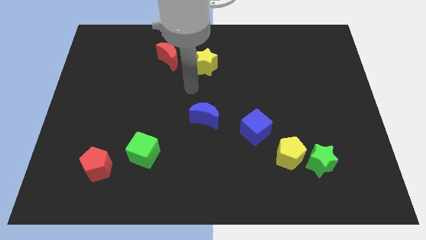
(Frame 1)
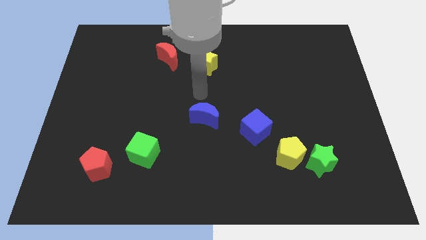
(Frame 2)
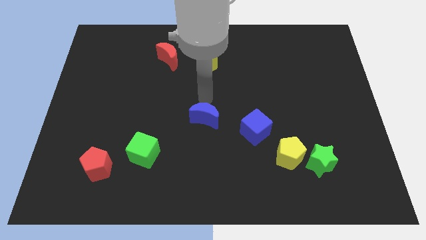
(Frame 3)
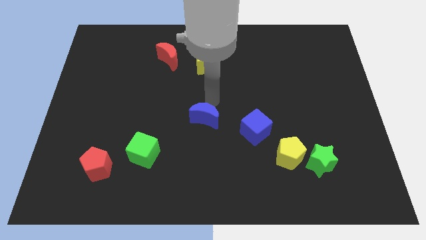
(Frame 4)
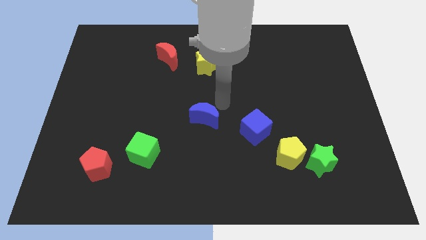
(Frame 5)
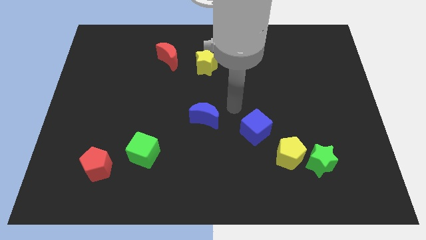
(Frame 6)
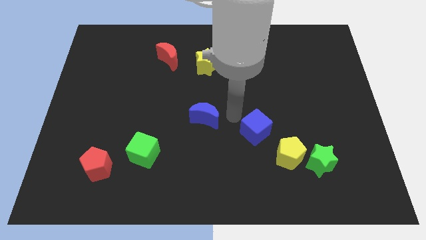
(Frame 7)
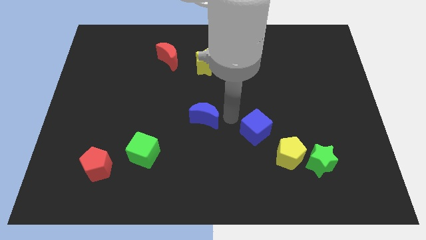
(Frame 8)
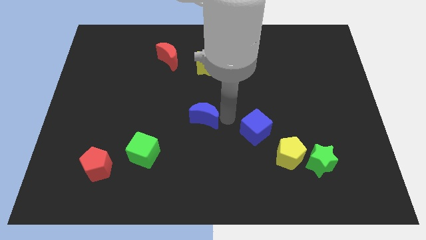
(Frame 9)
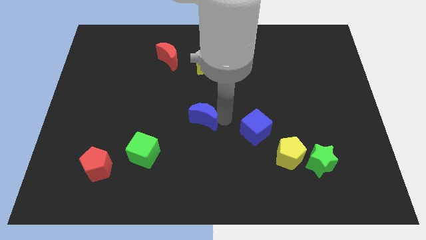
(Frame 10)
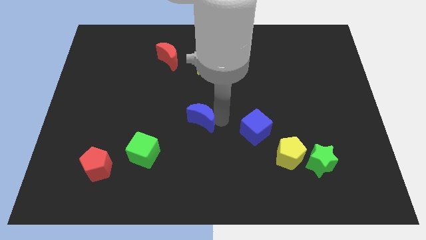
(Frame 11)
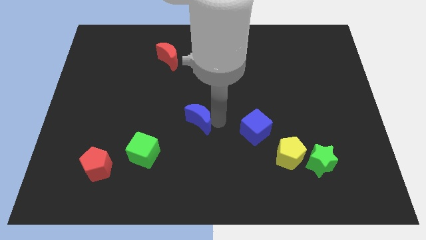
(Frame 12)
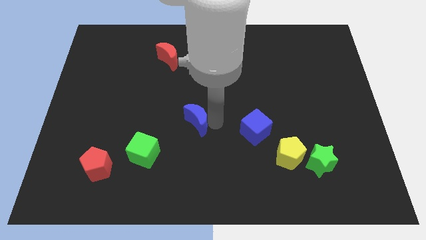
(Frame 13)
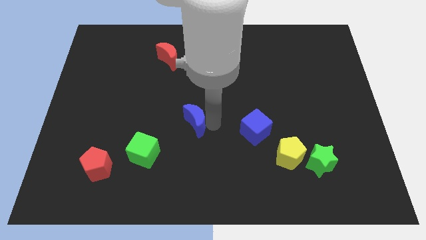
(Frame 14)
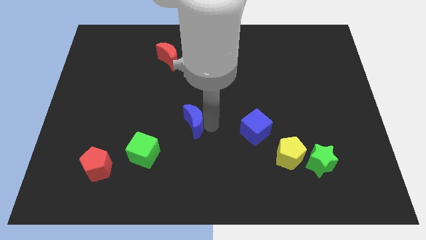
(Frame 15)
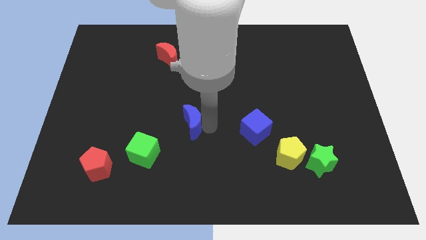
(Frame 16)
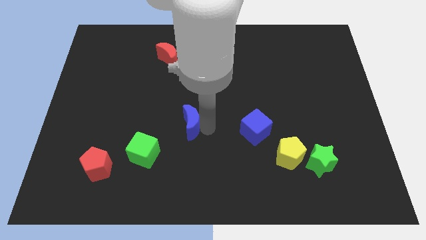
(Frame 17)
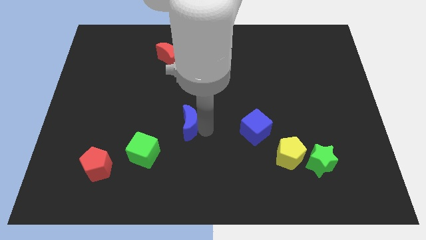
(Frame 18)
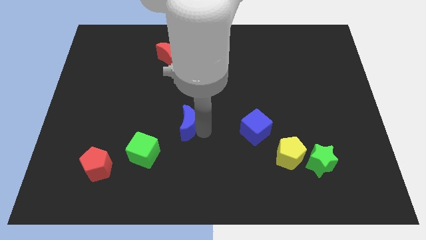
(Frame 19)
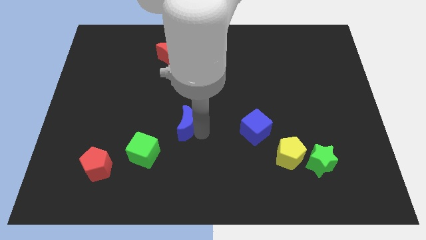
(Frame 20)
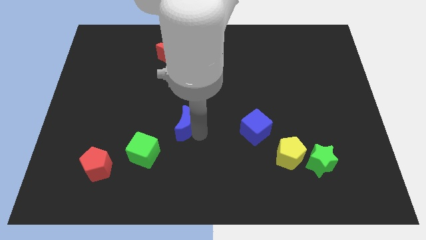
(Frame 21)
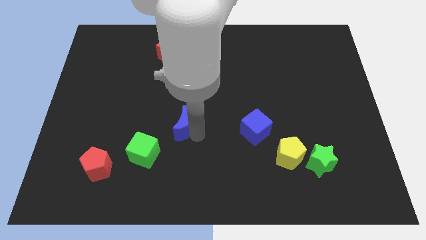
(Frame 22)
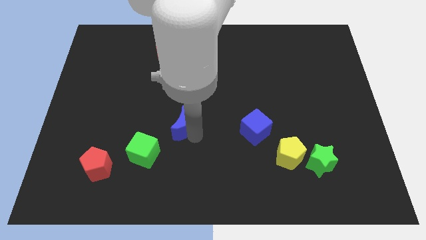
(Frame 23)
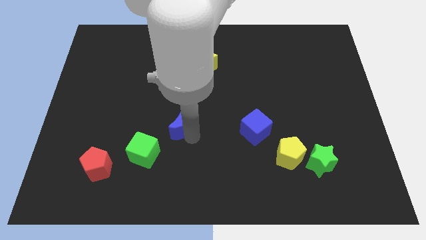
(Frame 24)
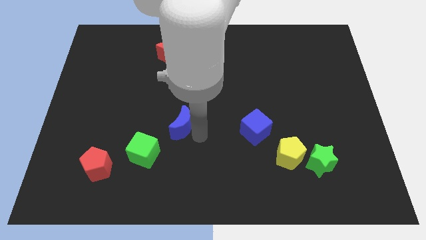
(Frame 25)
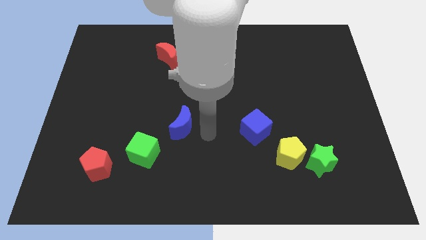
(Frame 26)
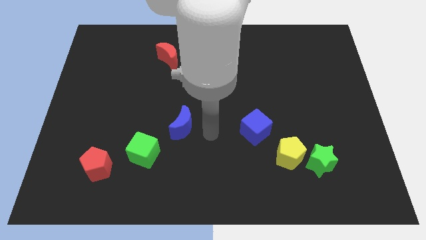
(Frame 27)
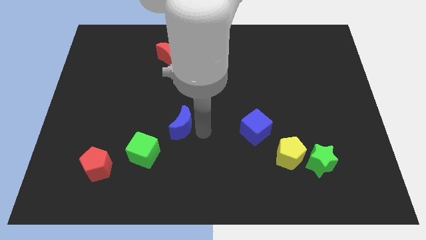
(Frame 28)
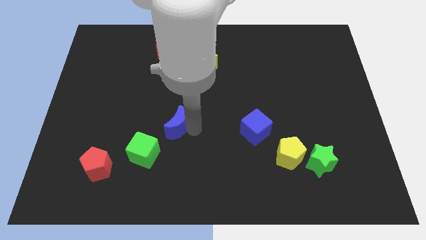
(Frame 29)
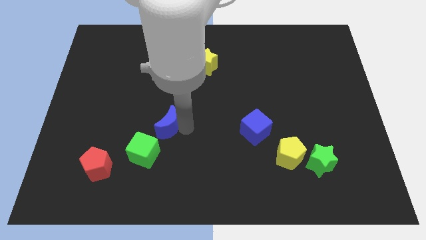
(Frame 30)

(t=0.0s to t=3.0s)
slide the blue moon left a bit

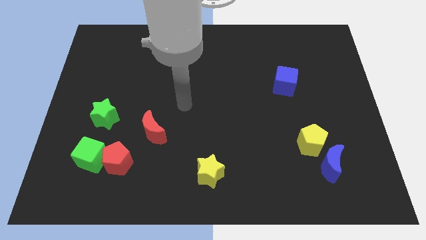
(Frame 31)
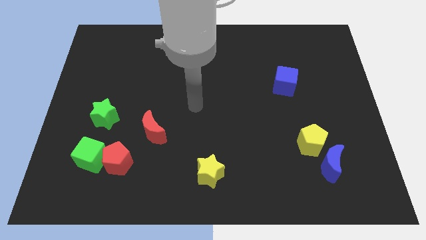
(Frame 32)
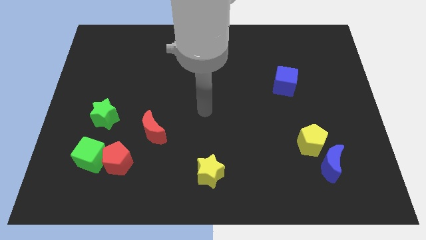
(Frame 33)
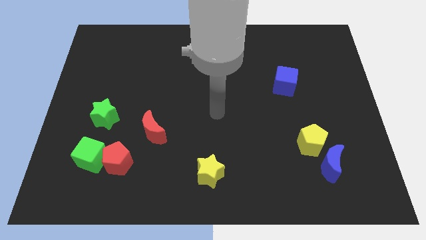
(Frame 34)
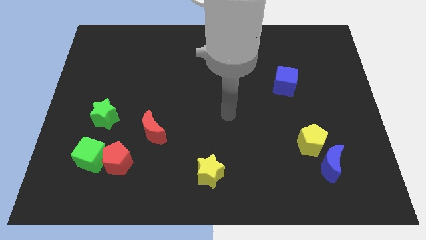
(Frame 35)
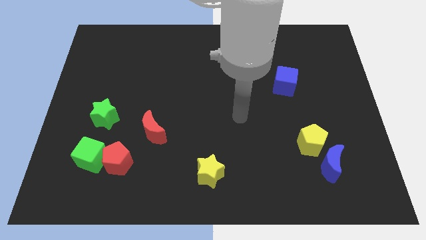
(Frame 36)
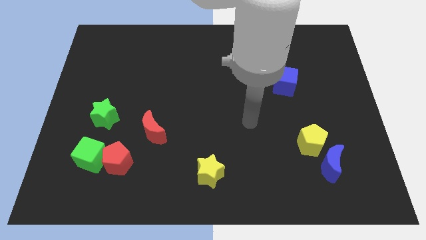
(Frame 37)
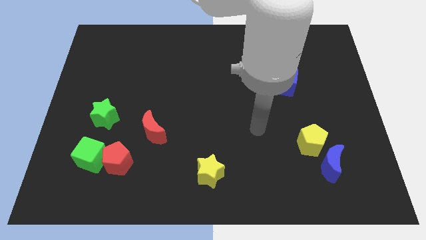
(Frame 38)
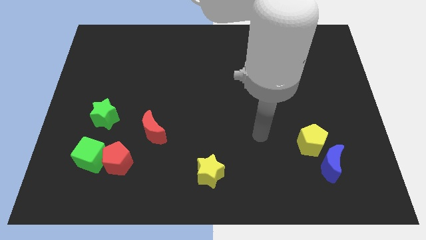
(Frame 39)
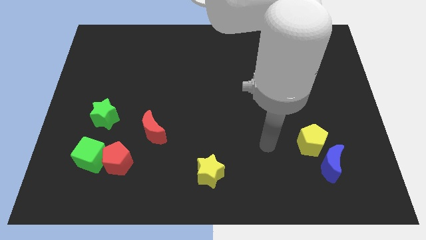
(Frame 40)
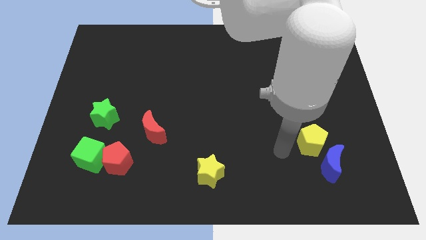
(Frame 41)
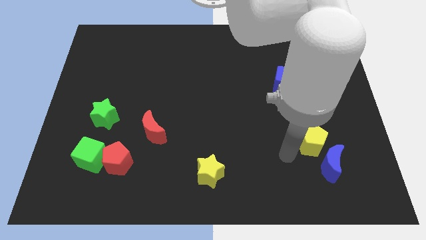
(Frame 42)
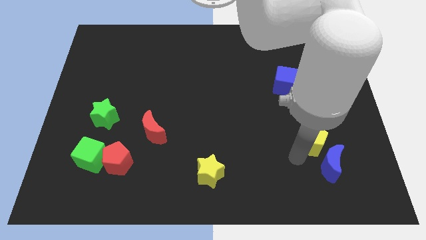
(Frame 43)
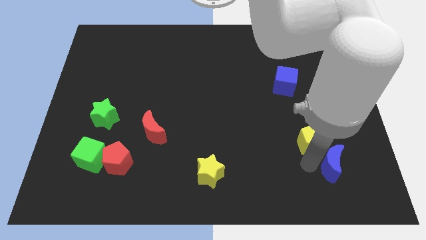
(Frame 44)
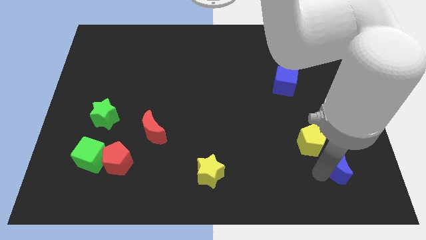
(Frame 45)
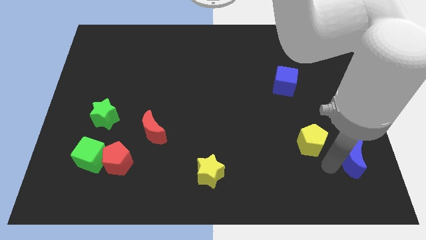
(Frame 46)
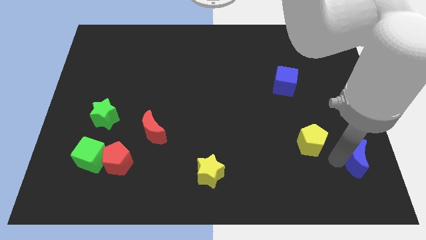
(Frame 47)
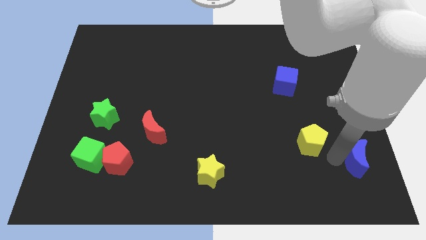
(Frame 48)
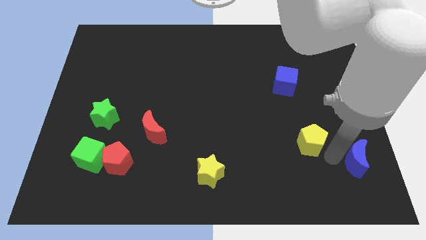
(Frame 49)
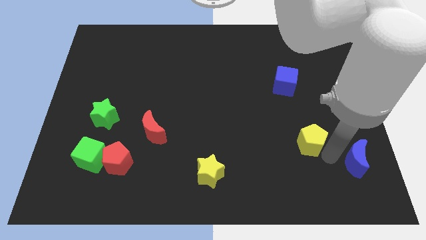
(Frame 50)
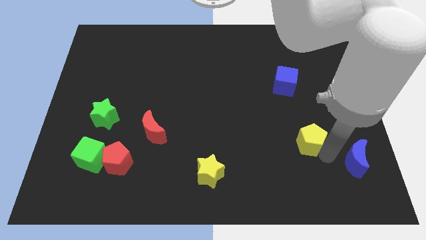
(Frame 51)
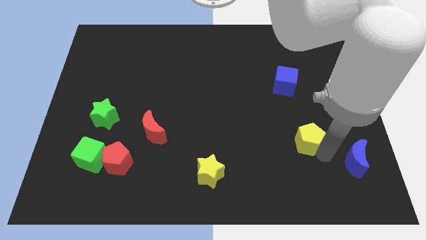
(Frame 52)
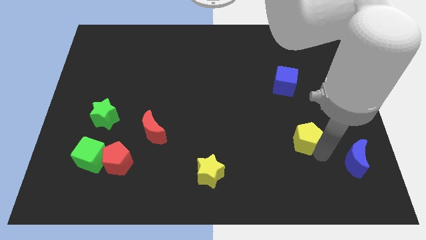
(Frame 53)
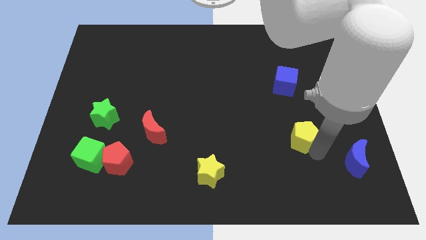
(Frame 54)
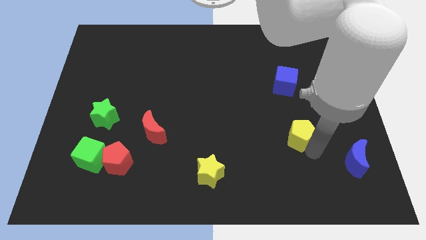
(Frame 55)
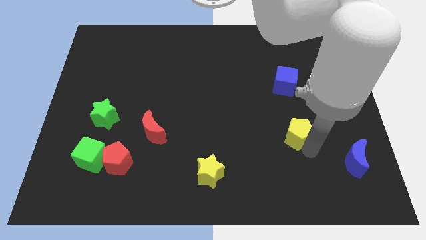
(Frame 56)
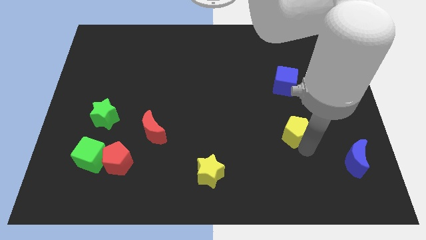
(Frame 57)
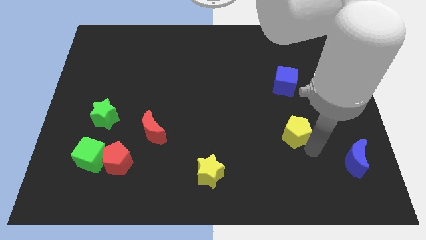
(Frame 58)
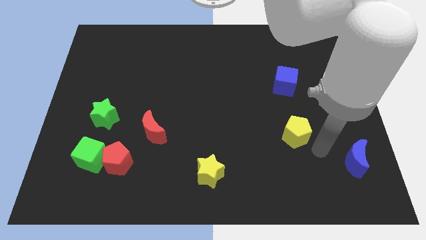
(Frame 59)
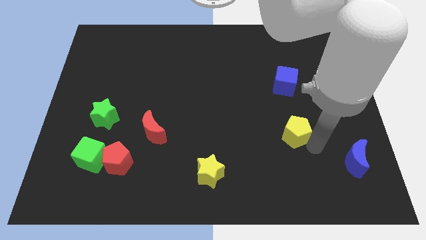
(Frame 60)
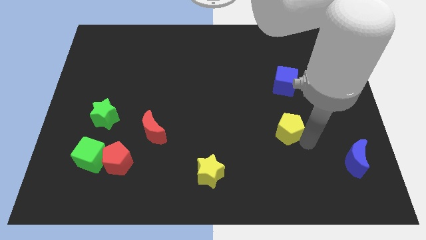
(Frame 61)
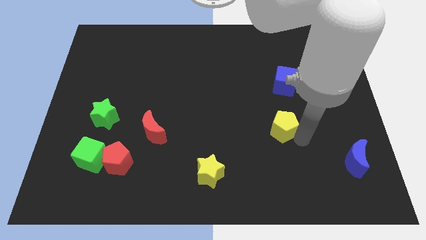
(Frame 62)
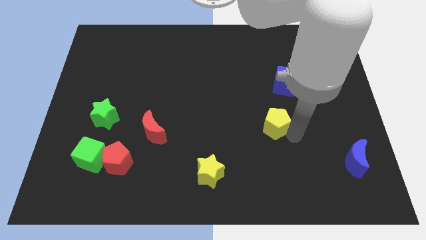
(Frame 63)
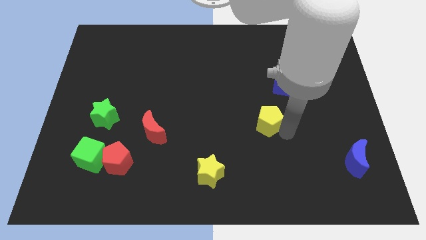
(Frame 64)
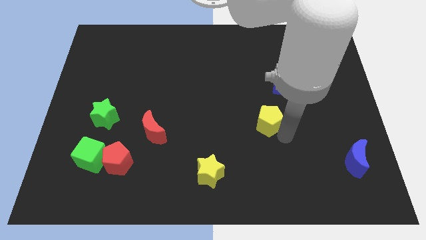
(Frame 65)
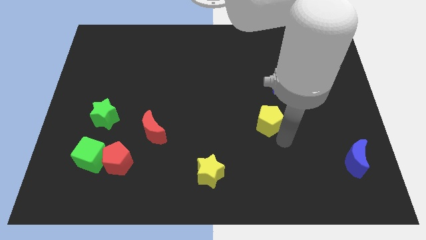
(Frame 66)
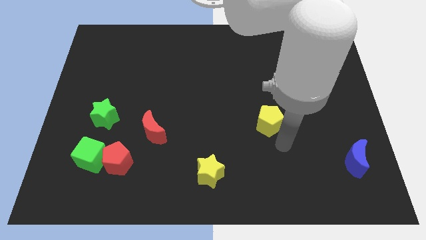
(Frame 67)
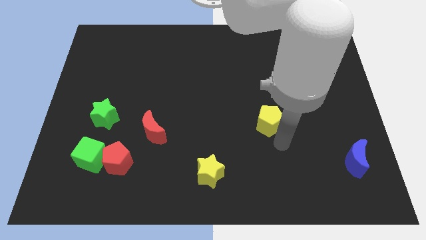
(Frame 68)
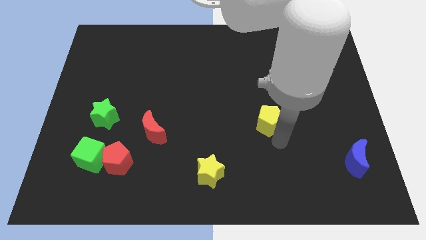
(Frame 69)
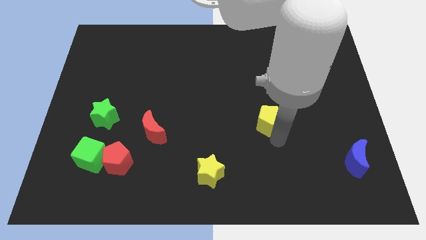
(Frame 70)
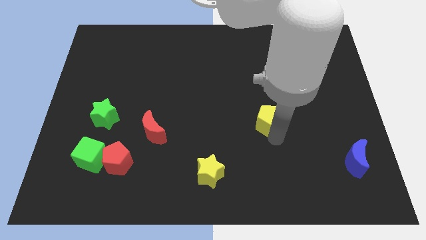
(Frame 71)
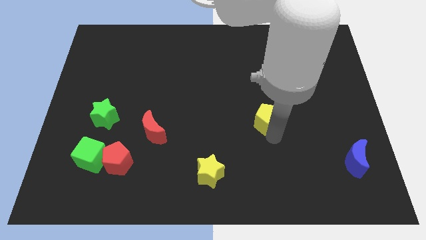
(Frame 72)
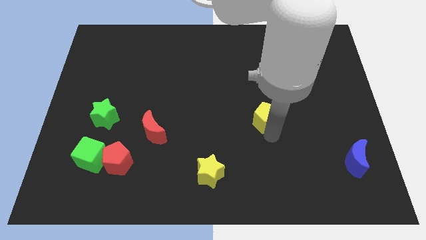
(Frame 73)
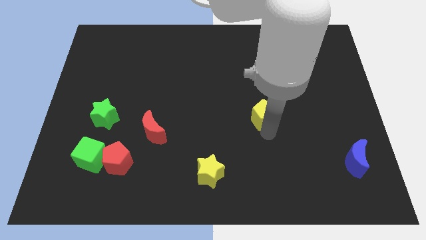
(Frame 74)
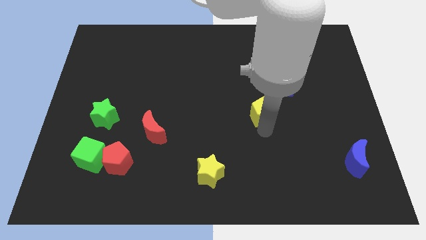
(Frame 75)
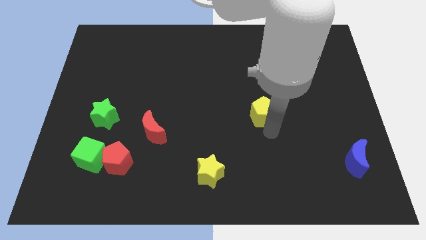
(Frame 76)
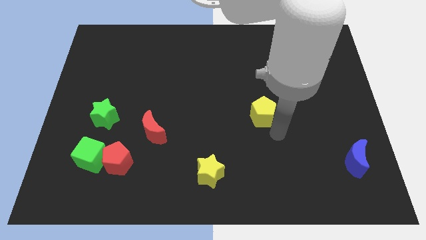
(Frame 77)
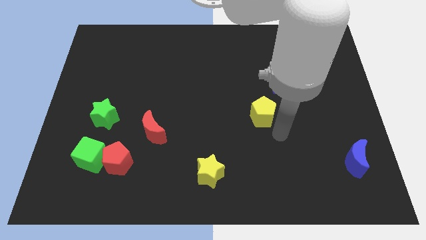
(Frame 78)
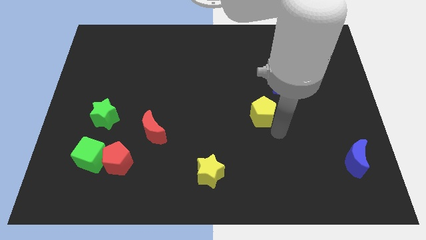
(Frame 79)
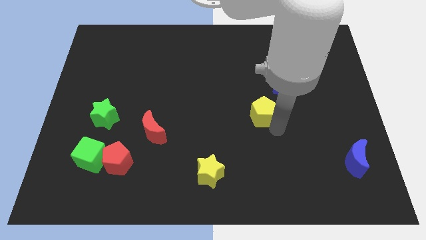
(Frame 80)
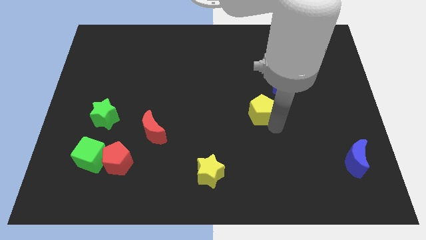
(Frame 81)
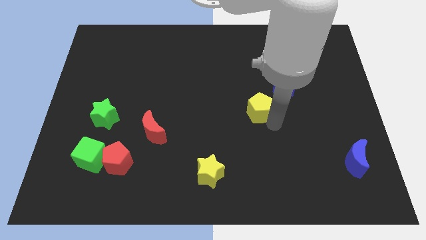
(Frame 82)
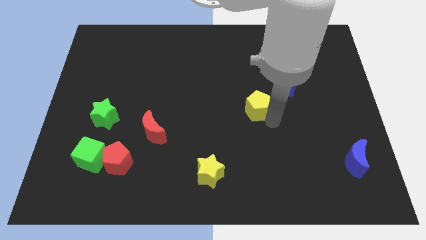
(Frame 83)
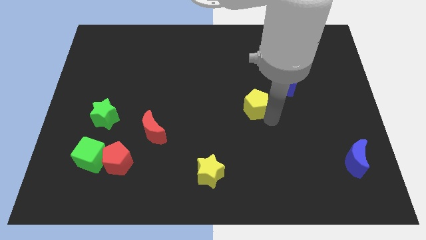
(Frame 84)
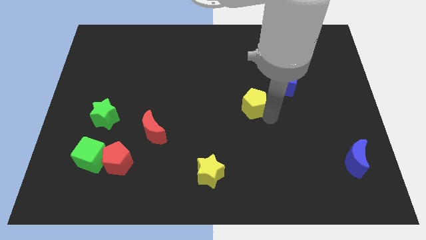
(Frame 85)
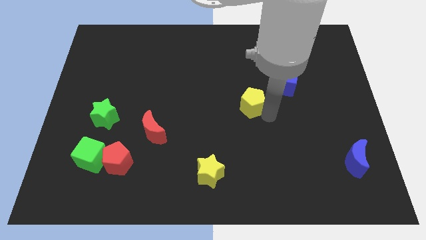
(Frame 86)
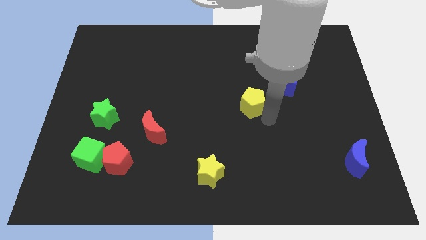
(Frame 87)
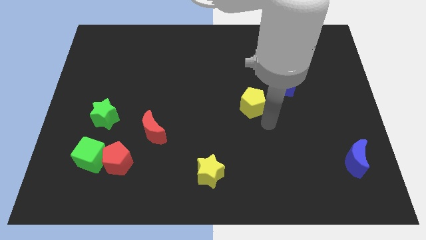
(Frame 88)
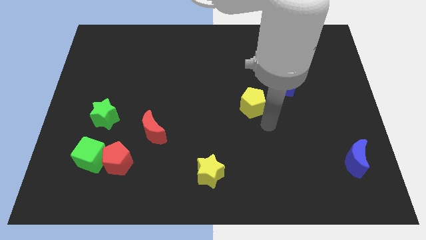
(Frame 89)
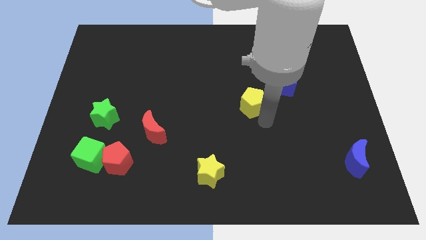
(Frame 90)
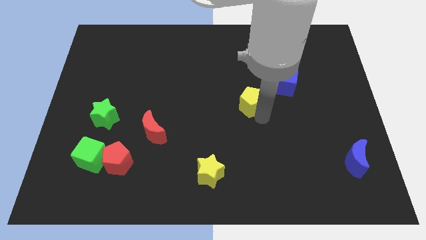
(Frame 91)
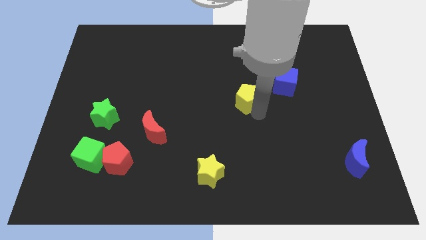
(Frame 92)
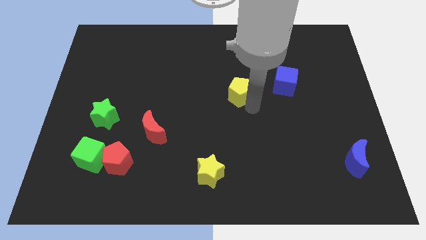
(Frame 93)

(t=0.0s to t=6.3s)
move the yellow pentagon up and to the left diagonally
